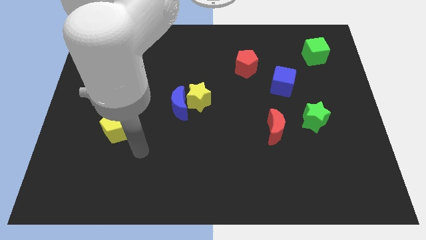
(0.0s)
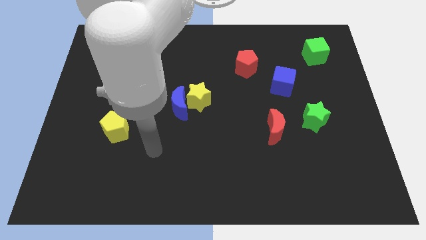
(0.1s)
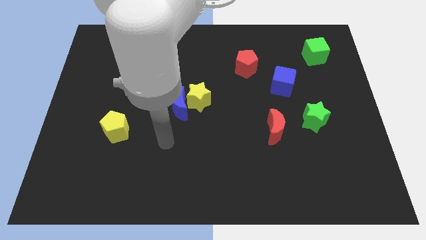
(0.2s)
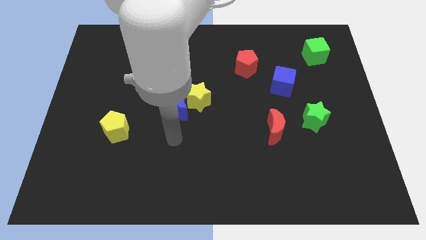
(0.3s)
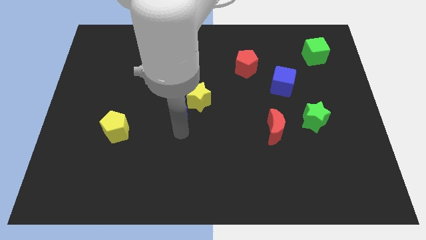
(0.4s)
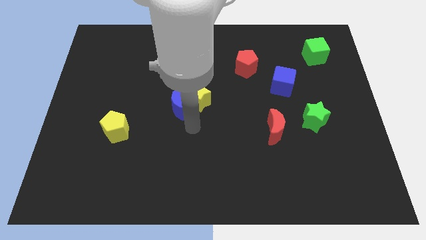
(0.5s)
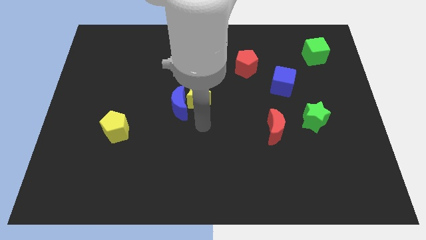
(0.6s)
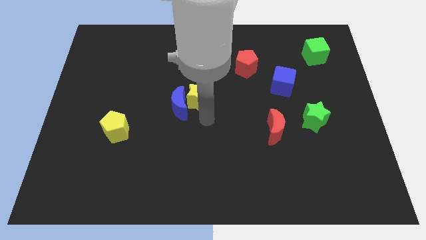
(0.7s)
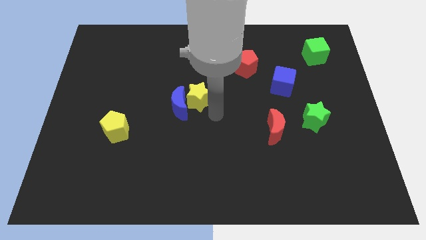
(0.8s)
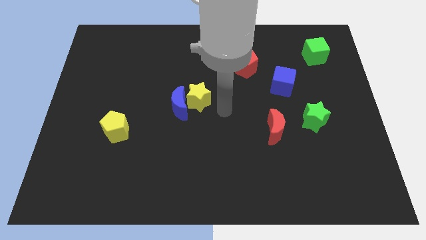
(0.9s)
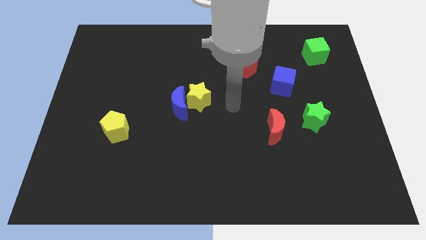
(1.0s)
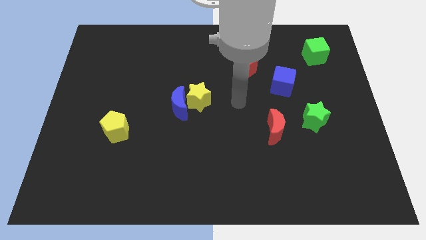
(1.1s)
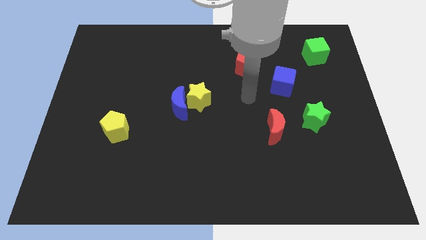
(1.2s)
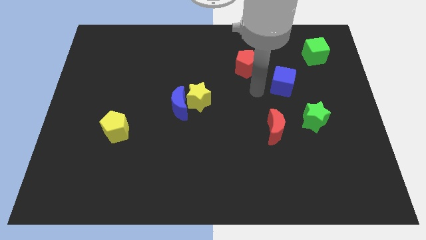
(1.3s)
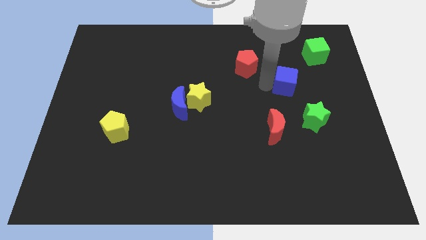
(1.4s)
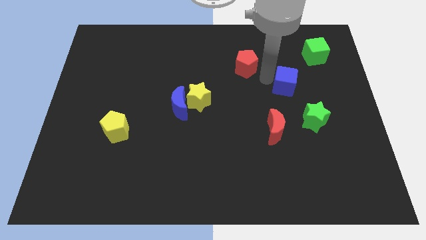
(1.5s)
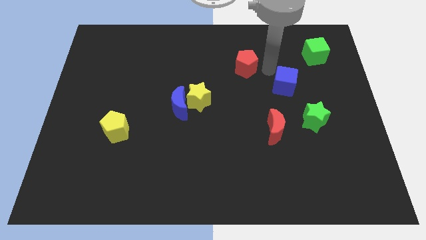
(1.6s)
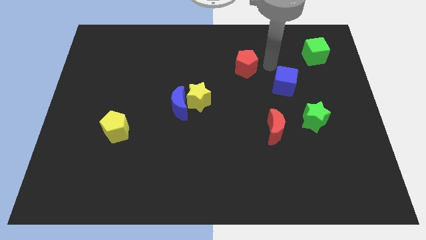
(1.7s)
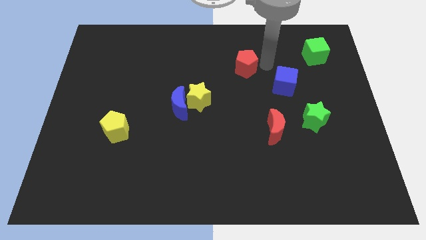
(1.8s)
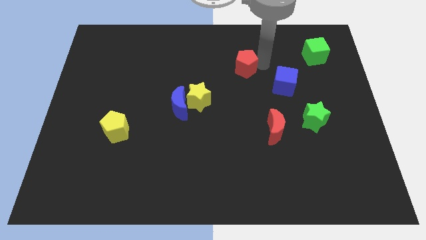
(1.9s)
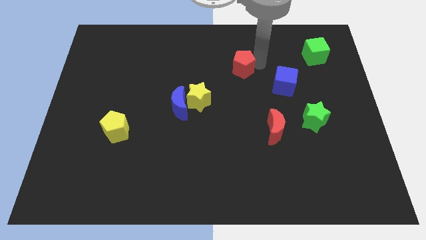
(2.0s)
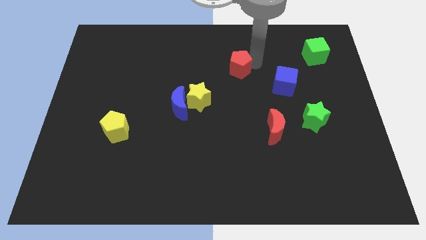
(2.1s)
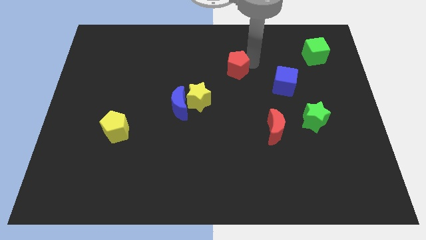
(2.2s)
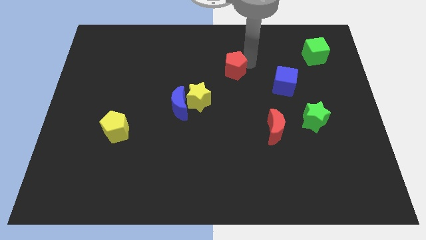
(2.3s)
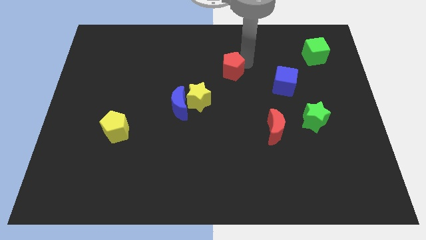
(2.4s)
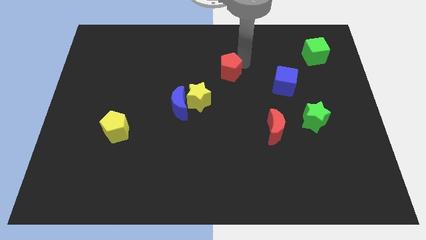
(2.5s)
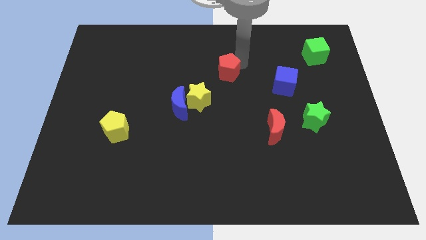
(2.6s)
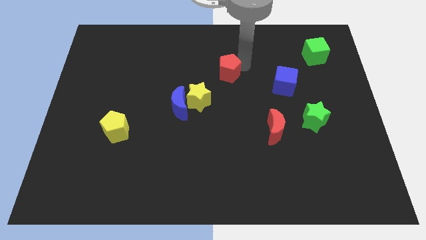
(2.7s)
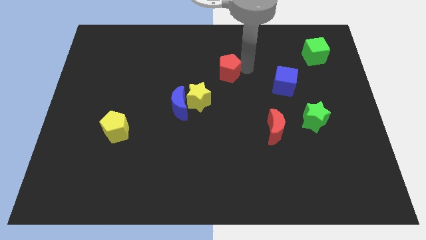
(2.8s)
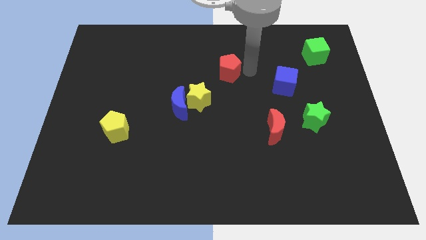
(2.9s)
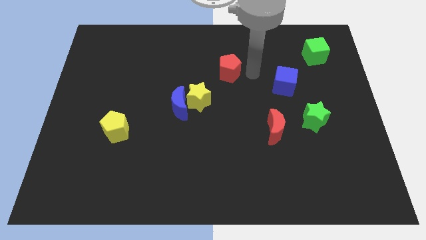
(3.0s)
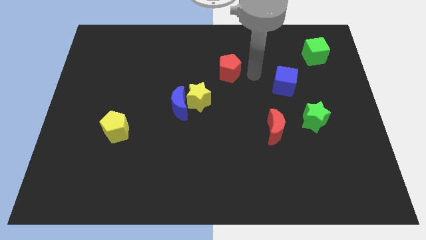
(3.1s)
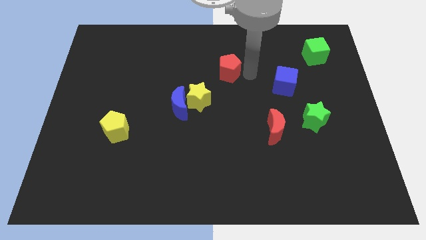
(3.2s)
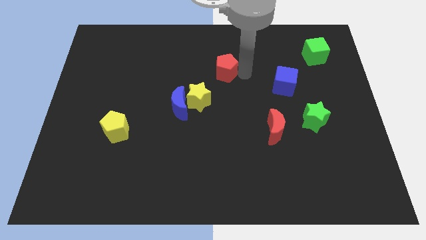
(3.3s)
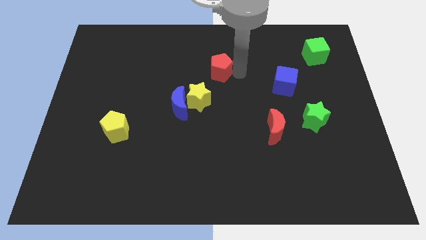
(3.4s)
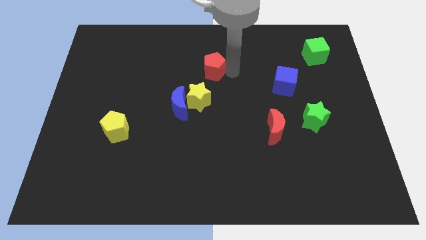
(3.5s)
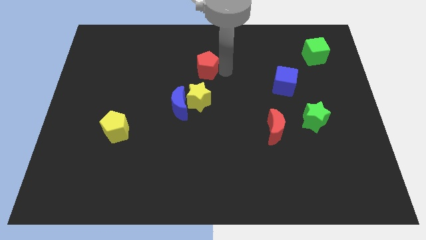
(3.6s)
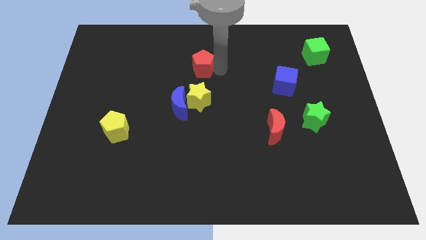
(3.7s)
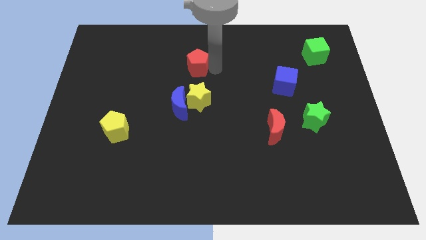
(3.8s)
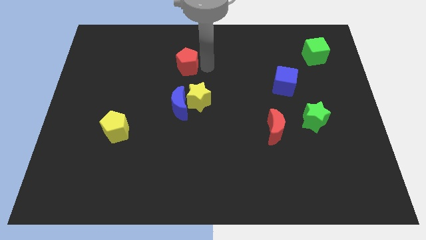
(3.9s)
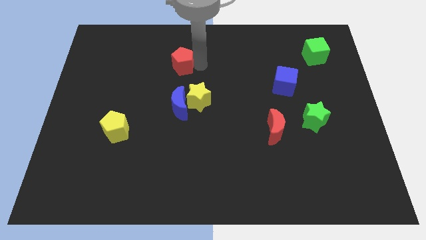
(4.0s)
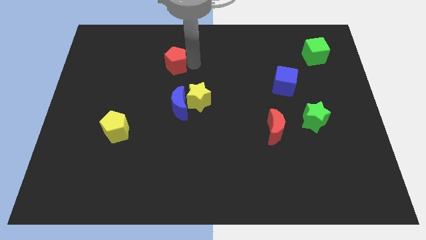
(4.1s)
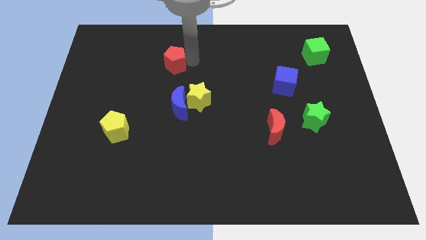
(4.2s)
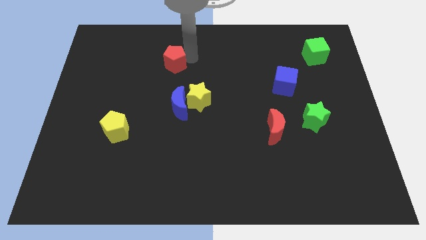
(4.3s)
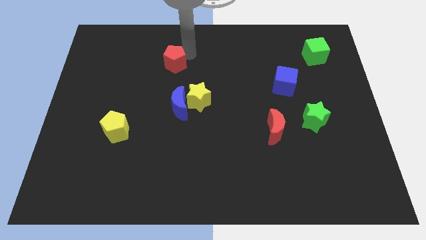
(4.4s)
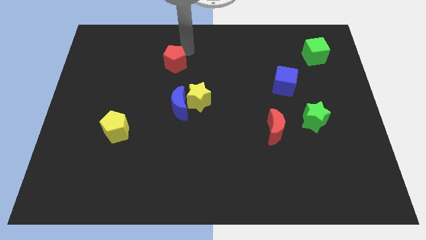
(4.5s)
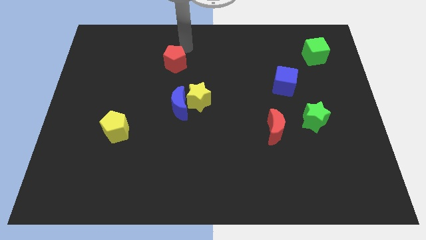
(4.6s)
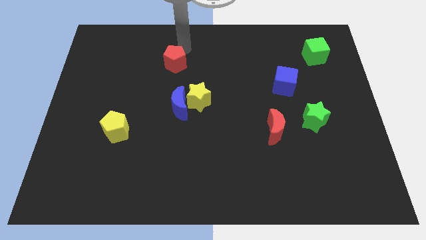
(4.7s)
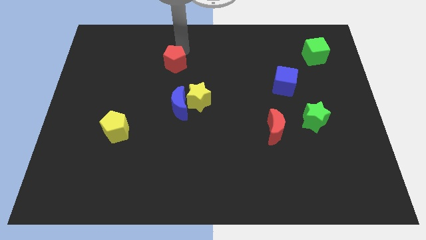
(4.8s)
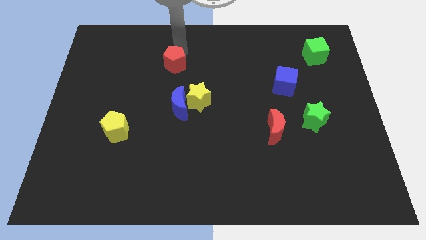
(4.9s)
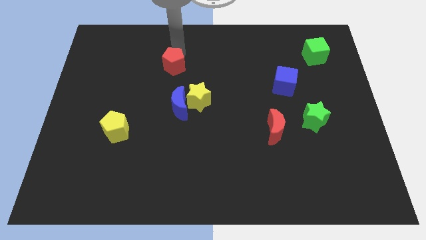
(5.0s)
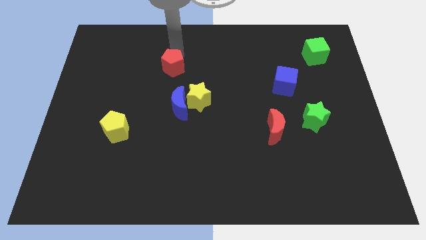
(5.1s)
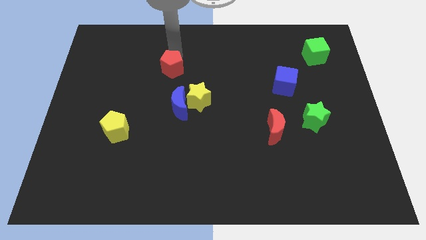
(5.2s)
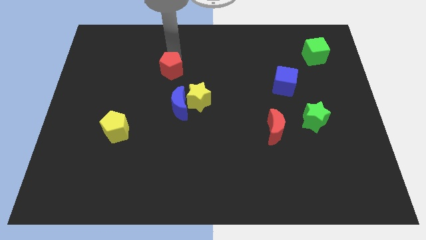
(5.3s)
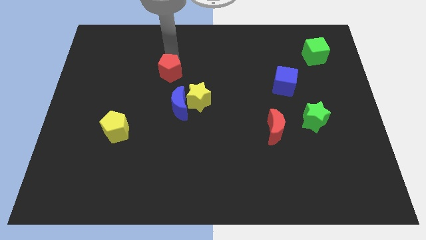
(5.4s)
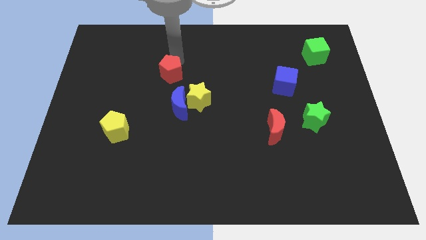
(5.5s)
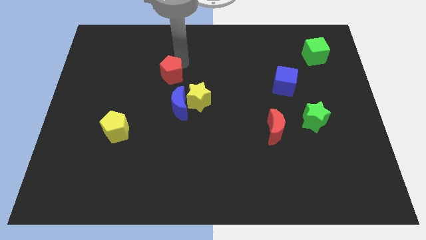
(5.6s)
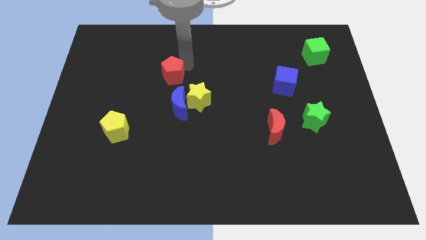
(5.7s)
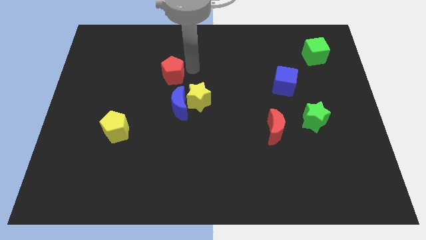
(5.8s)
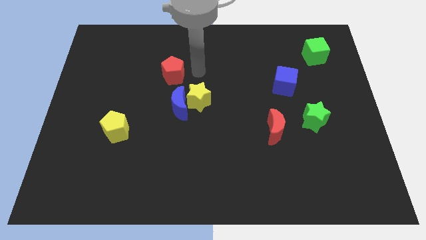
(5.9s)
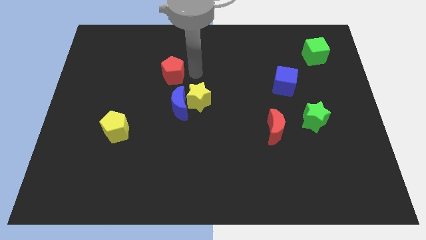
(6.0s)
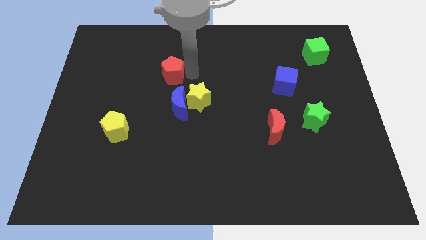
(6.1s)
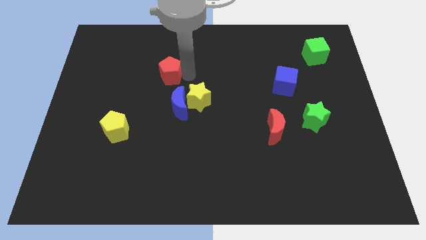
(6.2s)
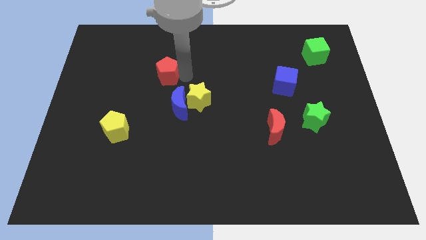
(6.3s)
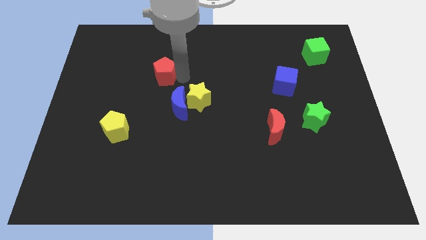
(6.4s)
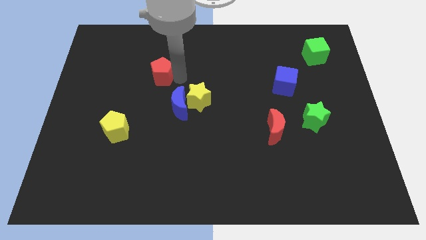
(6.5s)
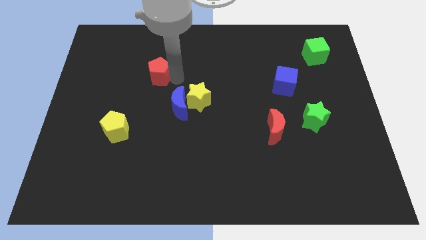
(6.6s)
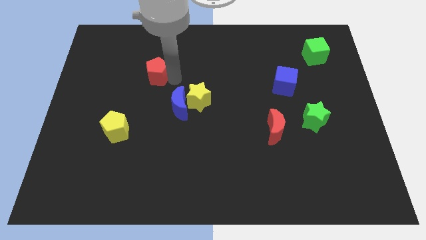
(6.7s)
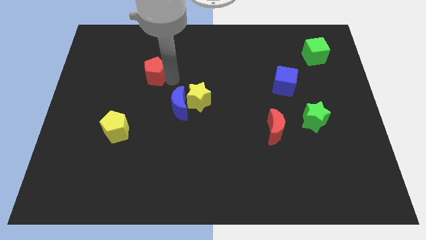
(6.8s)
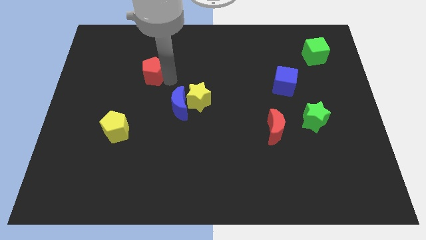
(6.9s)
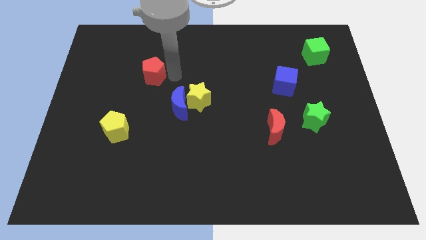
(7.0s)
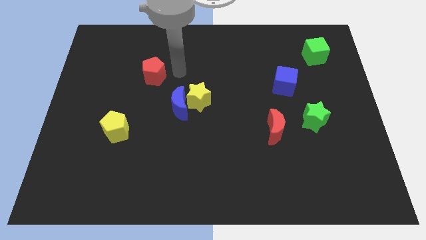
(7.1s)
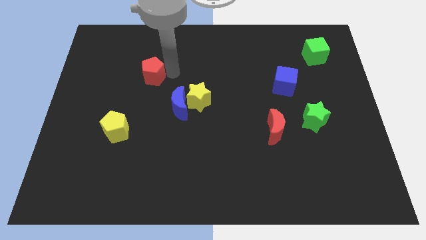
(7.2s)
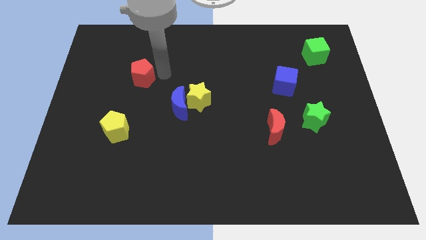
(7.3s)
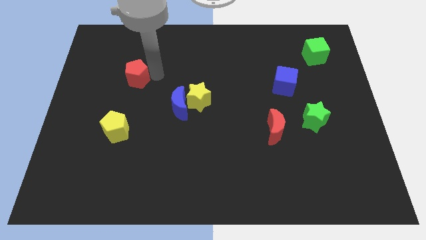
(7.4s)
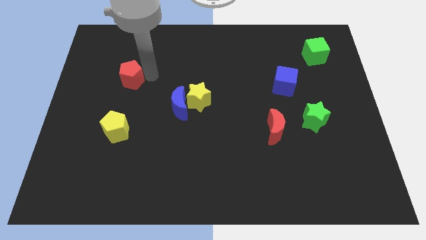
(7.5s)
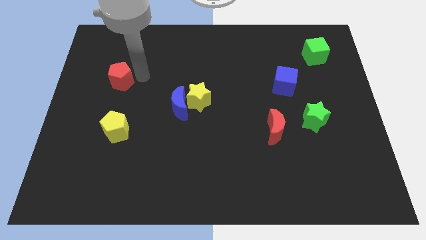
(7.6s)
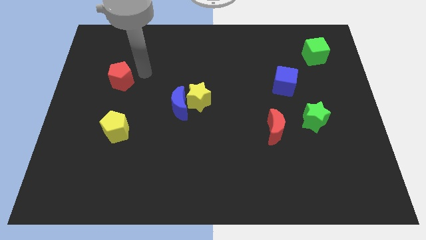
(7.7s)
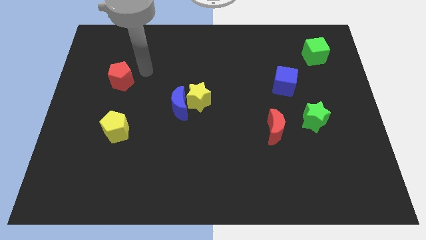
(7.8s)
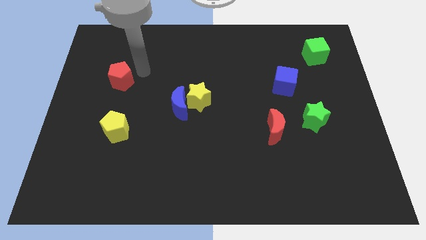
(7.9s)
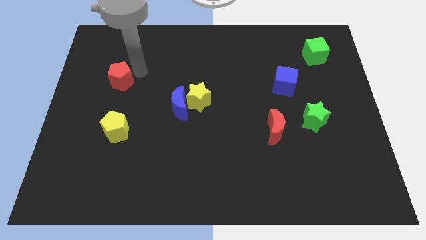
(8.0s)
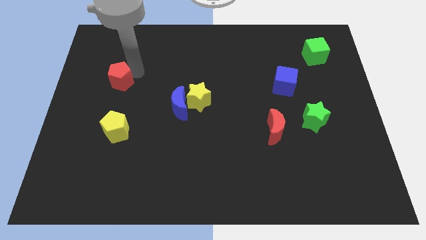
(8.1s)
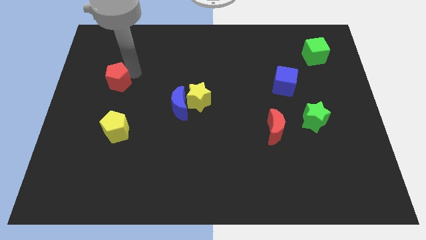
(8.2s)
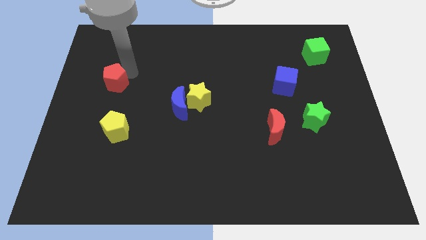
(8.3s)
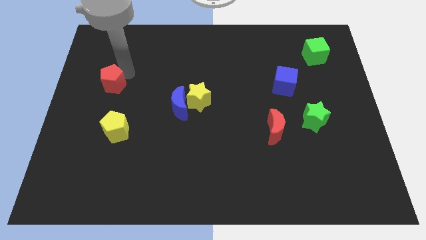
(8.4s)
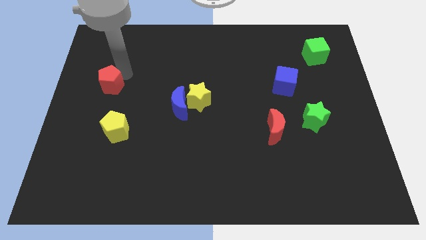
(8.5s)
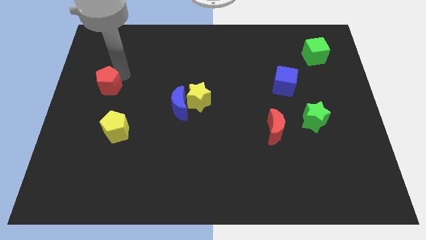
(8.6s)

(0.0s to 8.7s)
move the red pentagon to the left side of the board
